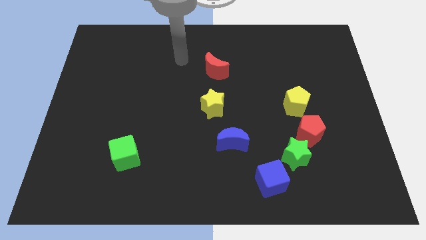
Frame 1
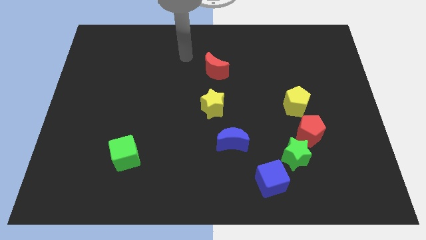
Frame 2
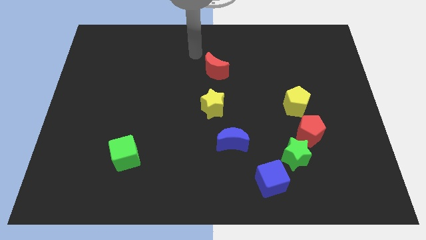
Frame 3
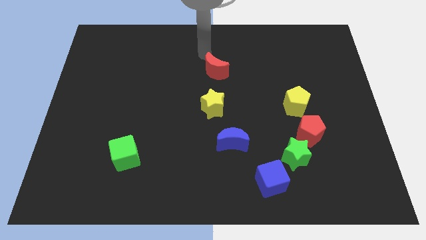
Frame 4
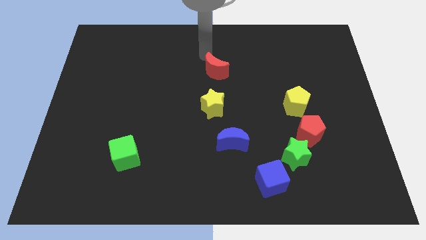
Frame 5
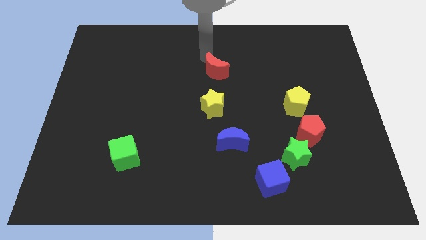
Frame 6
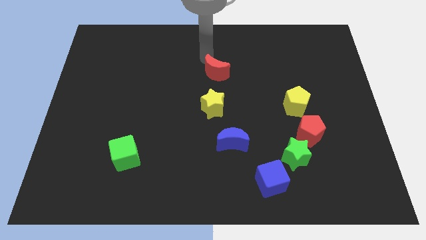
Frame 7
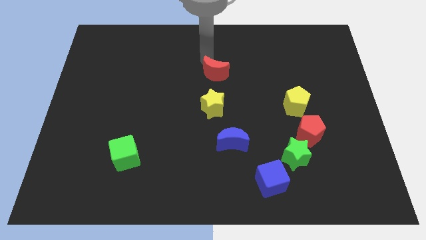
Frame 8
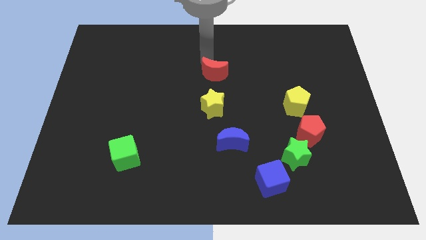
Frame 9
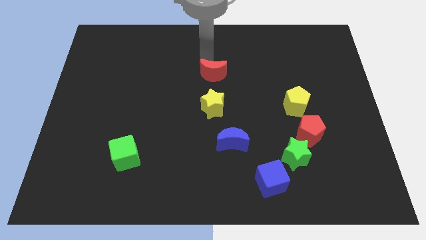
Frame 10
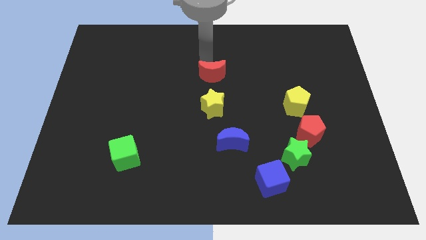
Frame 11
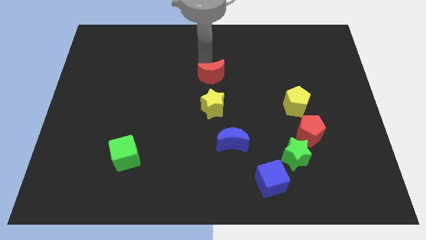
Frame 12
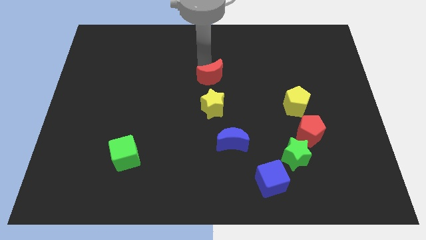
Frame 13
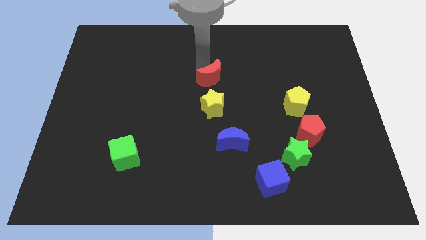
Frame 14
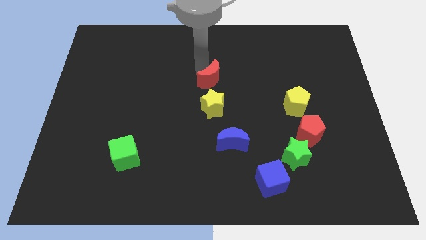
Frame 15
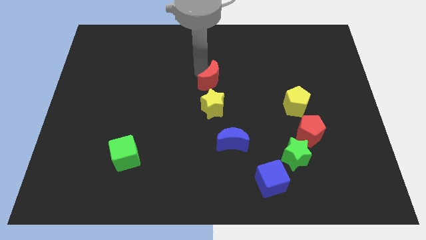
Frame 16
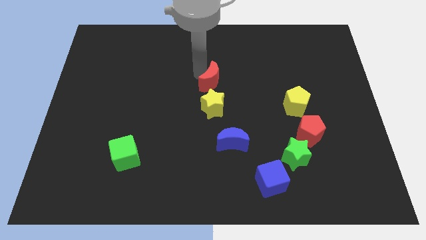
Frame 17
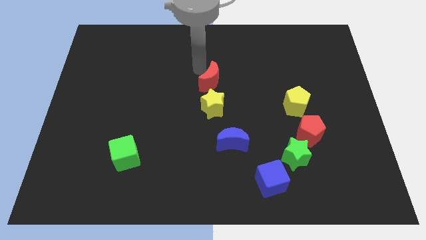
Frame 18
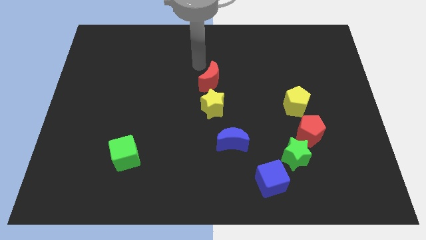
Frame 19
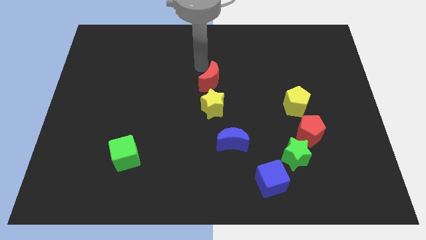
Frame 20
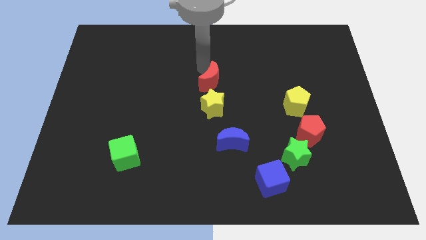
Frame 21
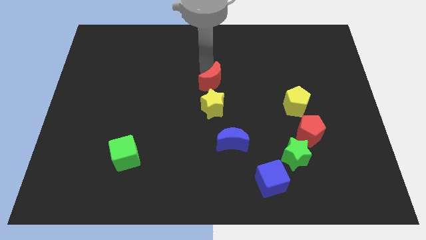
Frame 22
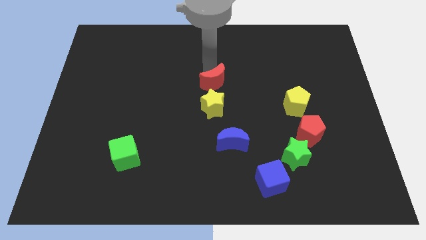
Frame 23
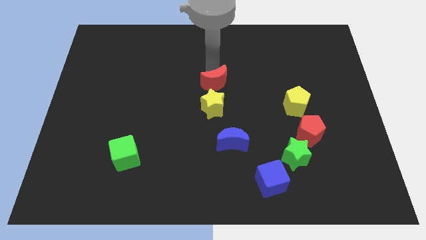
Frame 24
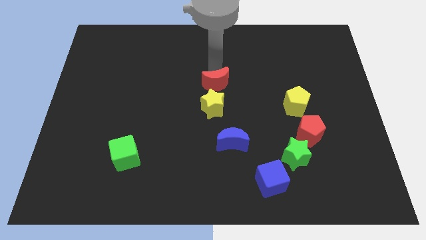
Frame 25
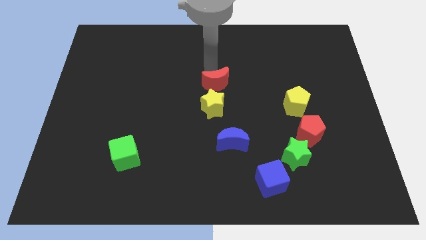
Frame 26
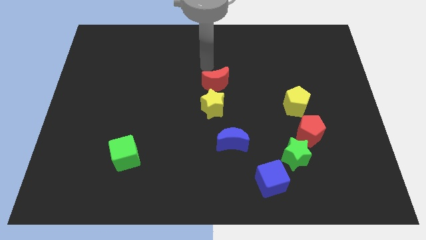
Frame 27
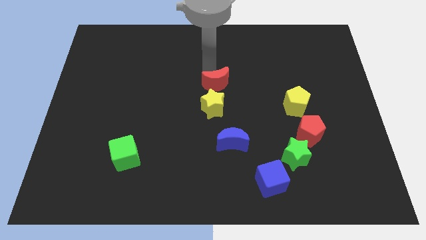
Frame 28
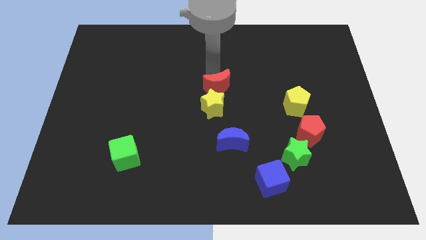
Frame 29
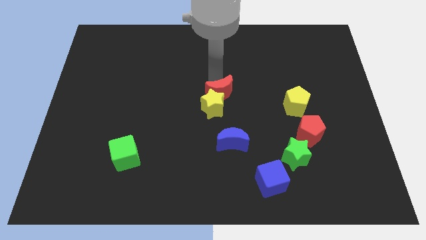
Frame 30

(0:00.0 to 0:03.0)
push the red moon slightly downwards

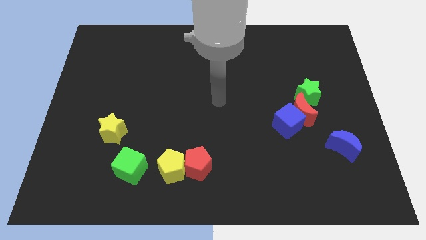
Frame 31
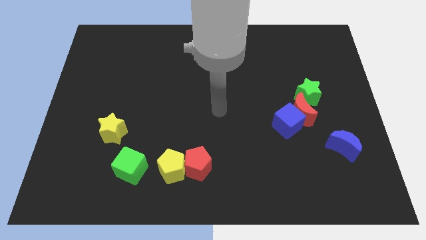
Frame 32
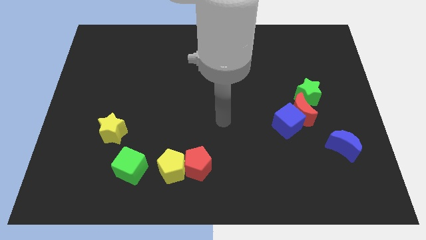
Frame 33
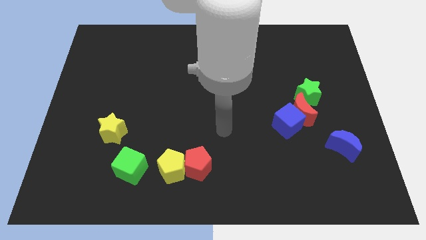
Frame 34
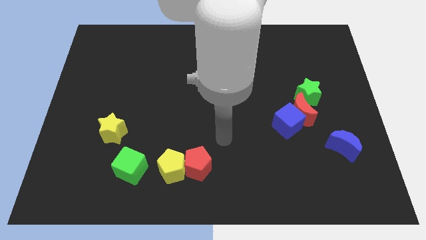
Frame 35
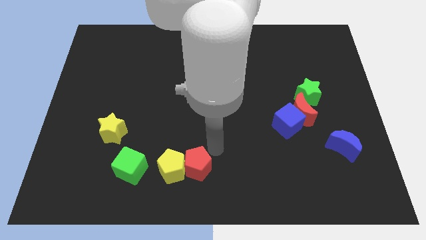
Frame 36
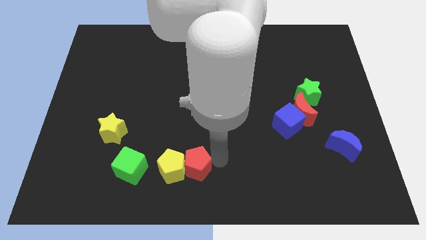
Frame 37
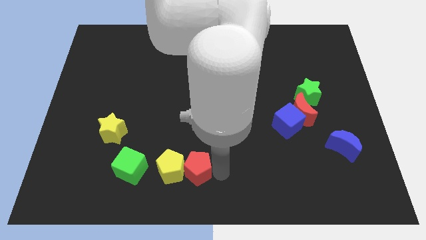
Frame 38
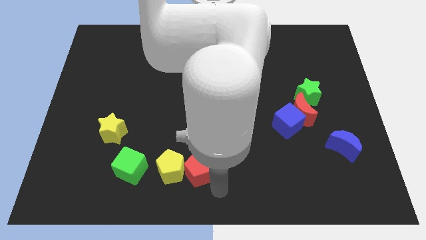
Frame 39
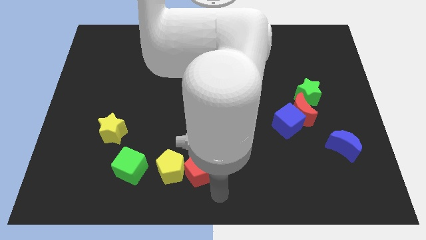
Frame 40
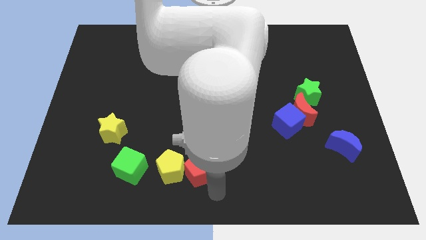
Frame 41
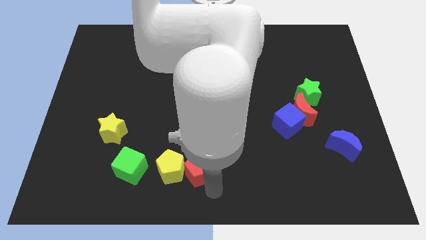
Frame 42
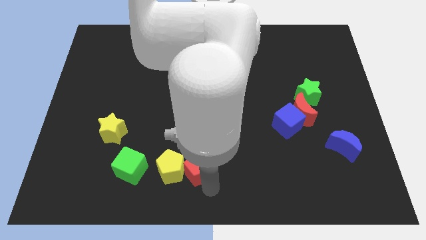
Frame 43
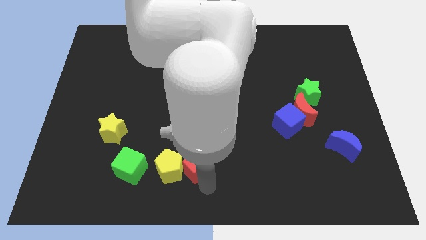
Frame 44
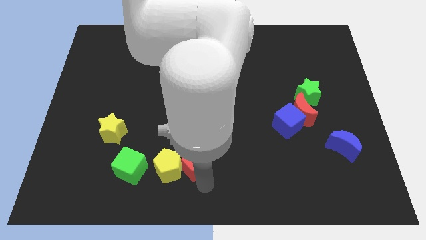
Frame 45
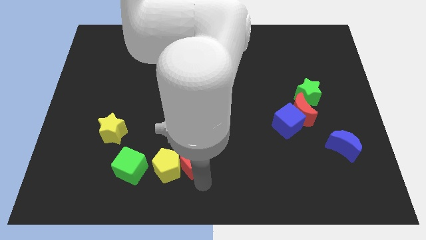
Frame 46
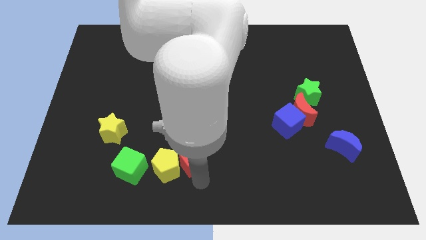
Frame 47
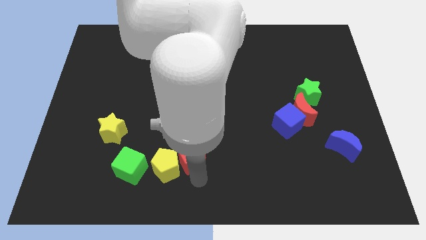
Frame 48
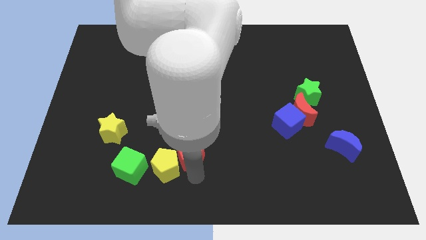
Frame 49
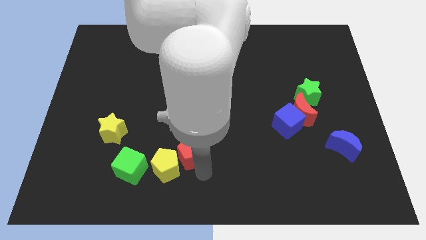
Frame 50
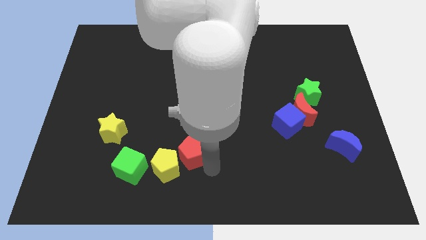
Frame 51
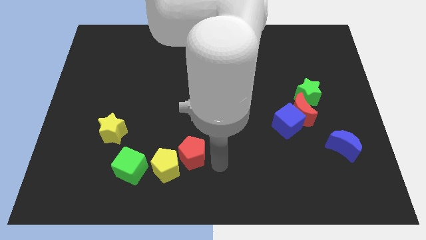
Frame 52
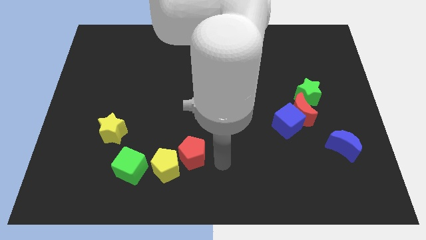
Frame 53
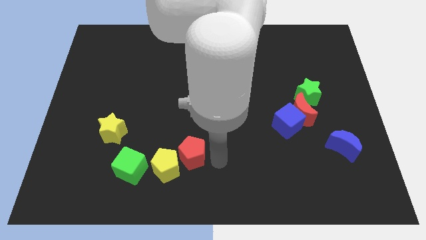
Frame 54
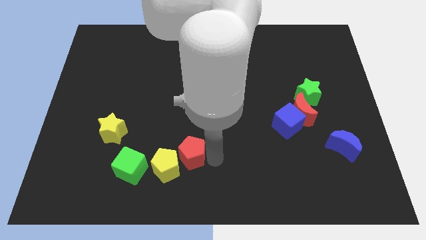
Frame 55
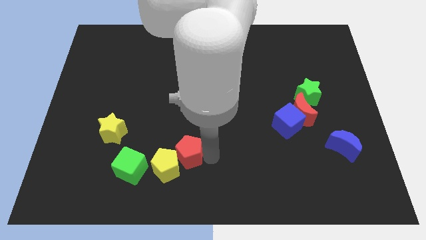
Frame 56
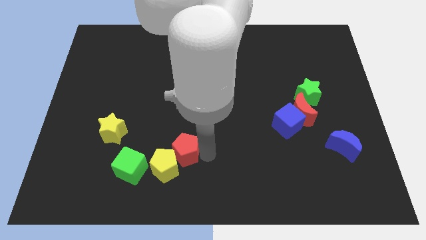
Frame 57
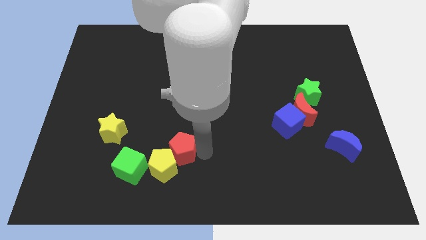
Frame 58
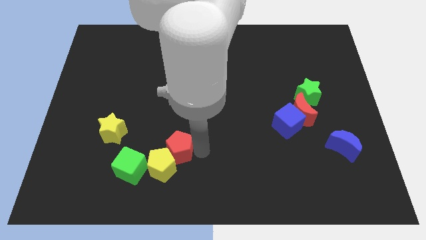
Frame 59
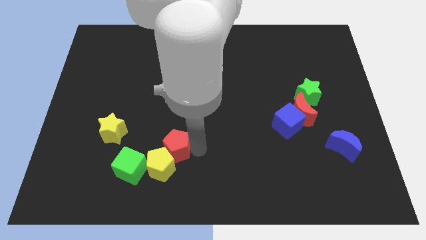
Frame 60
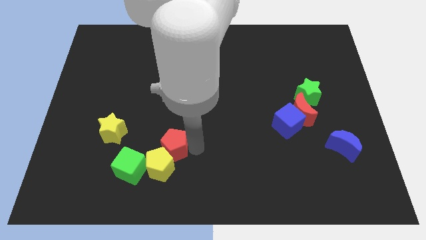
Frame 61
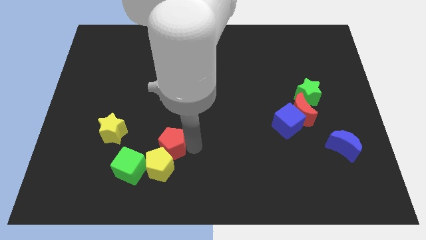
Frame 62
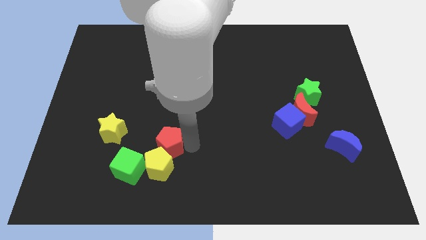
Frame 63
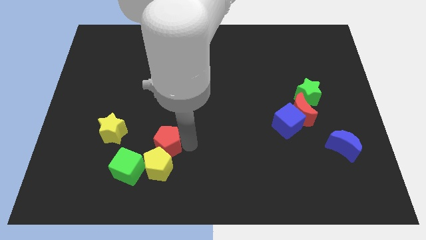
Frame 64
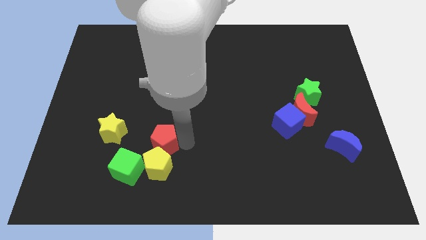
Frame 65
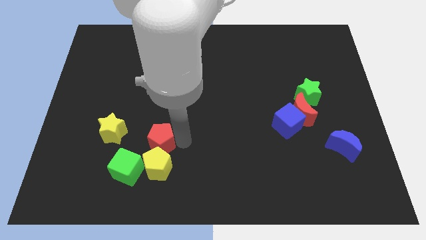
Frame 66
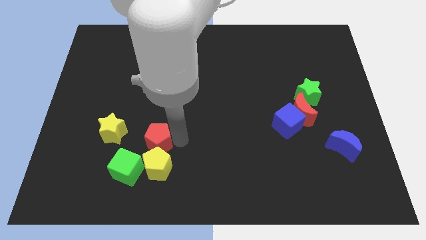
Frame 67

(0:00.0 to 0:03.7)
move the red pentagon a little bit left

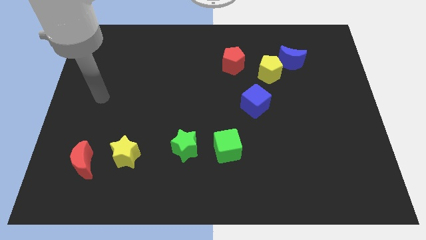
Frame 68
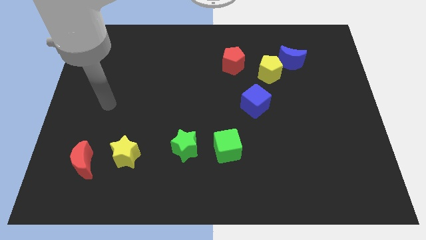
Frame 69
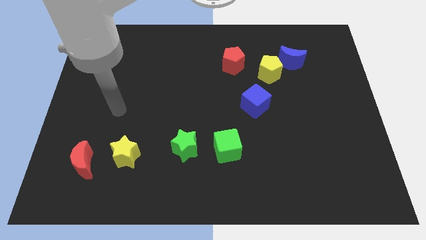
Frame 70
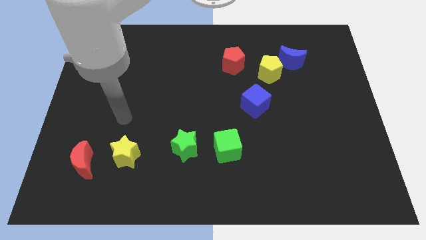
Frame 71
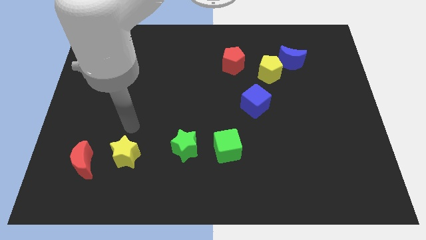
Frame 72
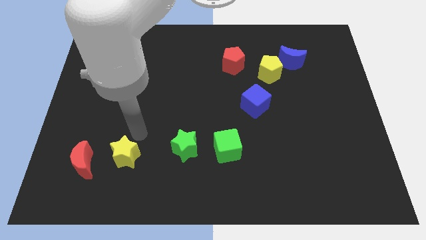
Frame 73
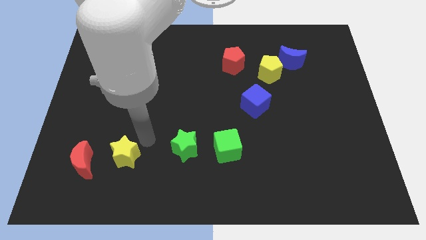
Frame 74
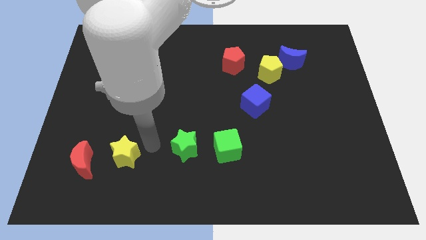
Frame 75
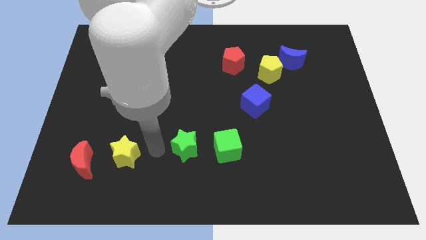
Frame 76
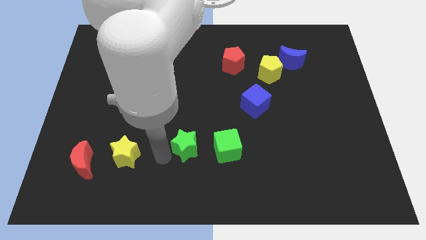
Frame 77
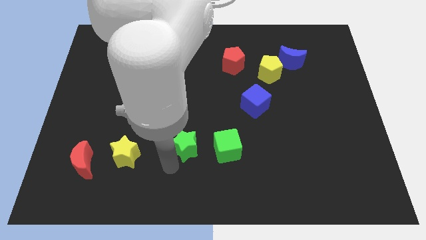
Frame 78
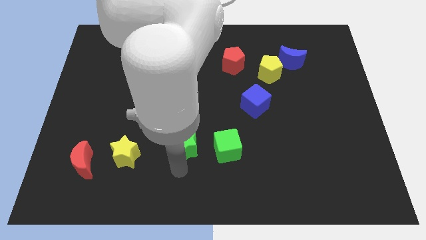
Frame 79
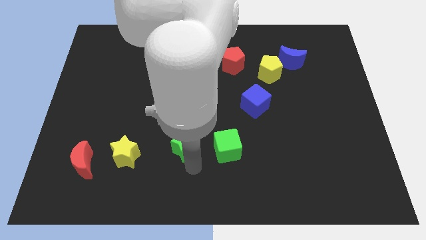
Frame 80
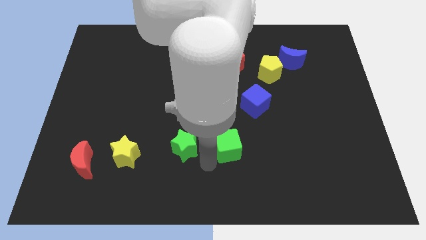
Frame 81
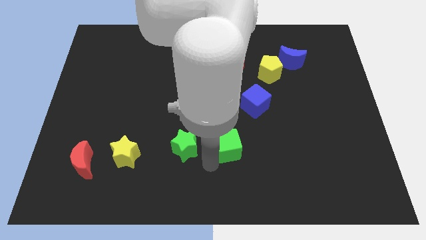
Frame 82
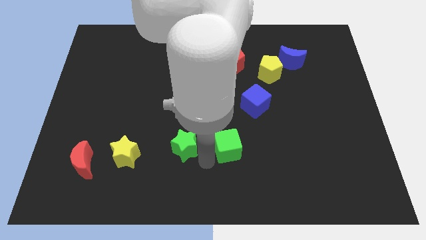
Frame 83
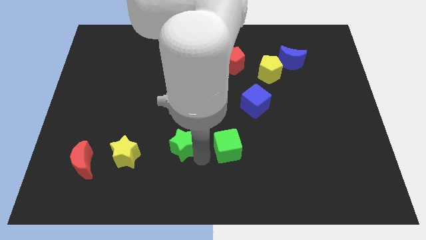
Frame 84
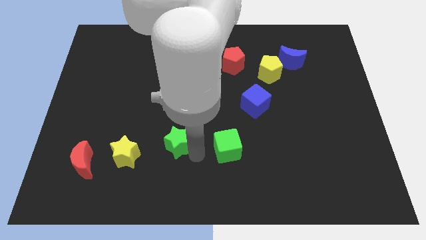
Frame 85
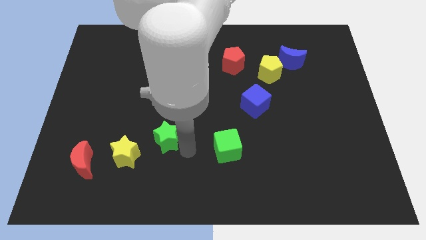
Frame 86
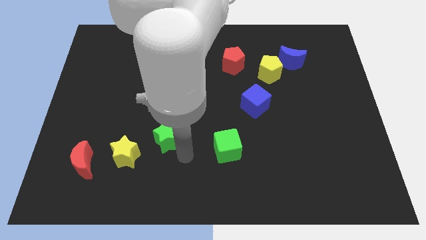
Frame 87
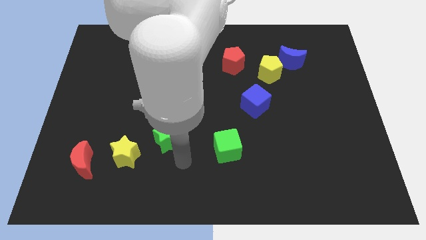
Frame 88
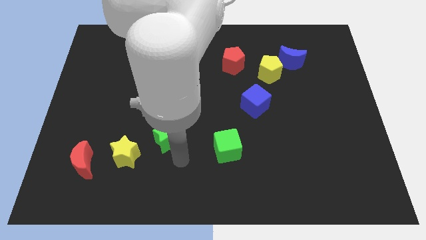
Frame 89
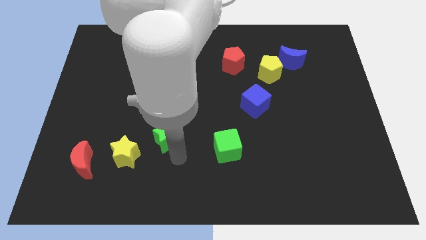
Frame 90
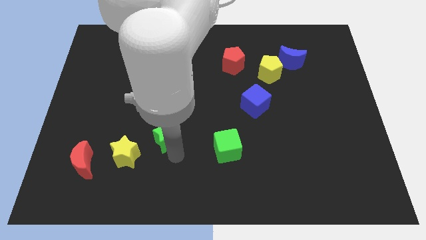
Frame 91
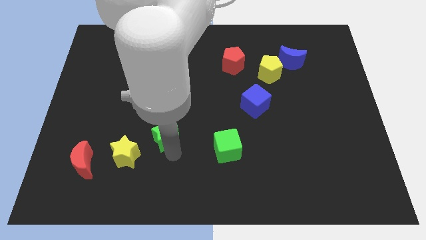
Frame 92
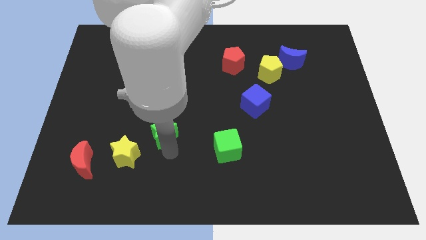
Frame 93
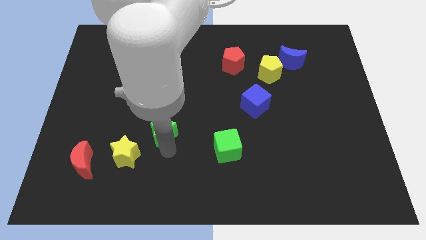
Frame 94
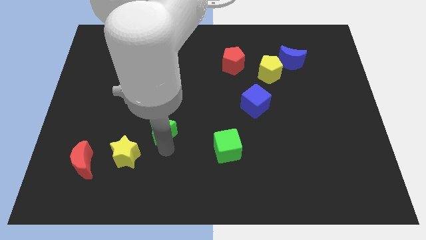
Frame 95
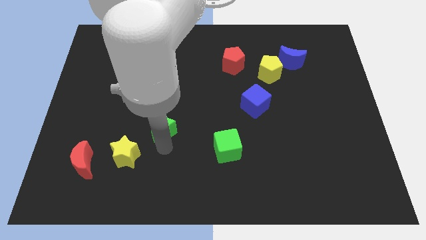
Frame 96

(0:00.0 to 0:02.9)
slide the green star somewhat upwards and then left
